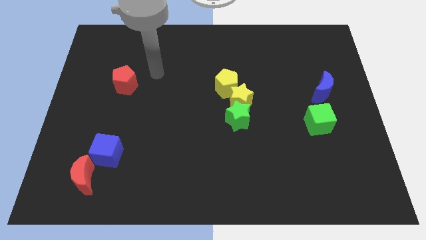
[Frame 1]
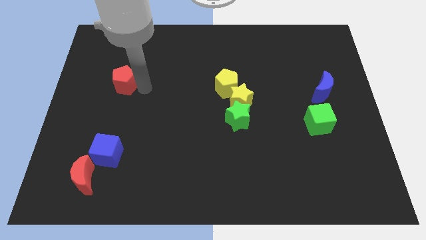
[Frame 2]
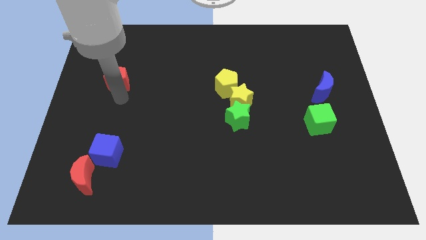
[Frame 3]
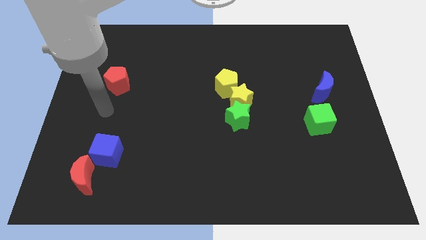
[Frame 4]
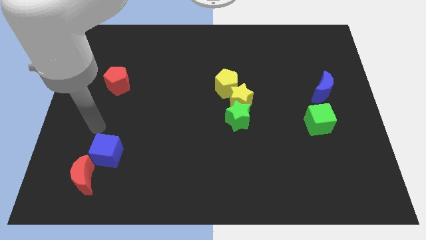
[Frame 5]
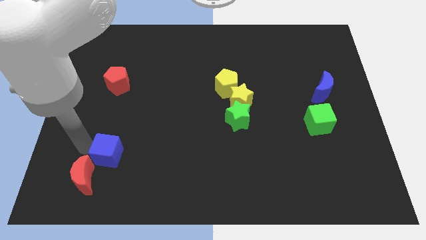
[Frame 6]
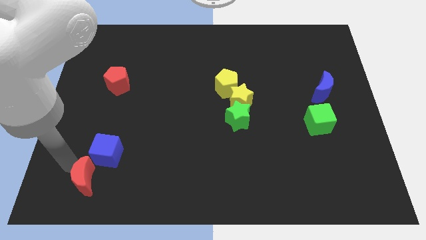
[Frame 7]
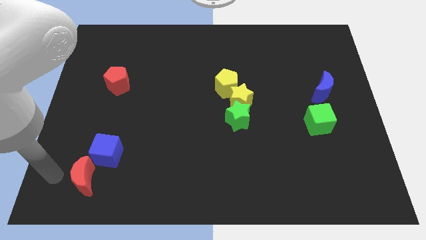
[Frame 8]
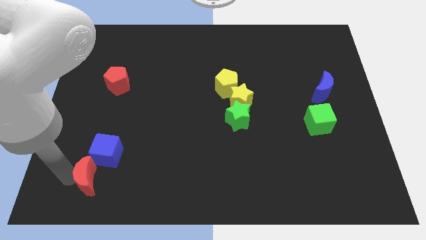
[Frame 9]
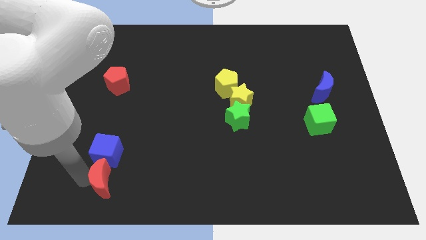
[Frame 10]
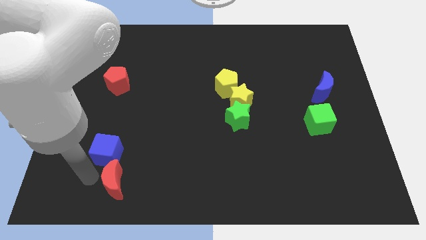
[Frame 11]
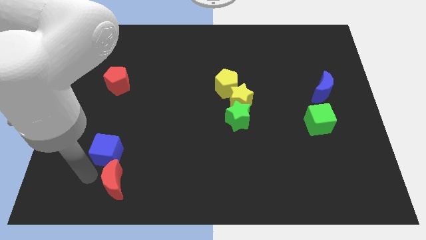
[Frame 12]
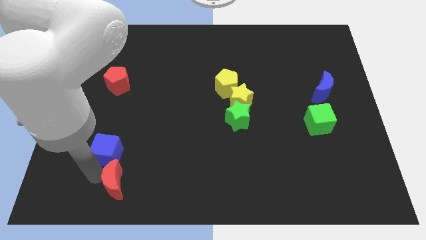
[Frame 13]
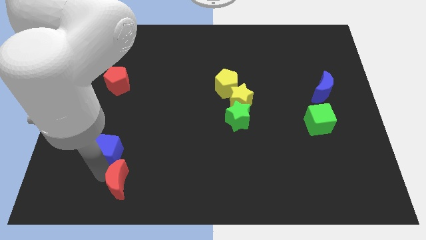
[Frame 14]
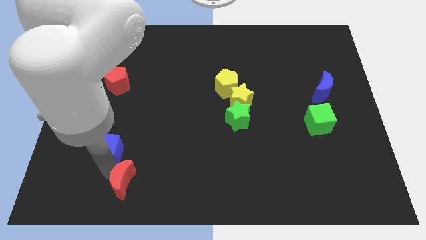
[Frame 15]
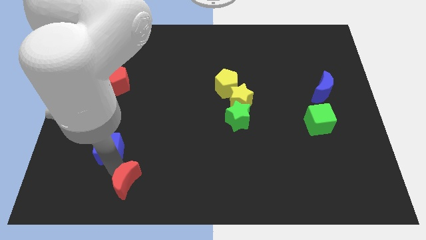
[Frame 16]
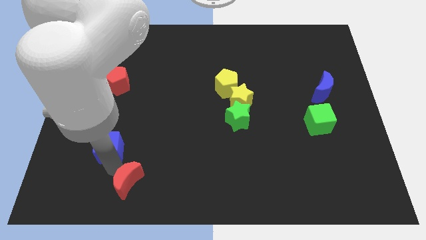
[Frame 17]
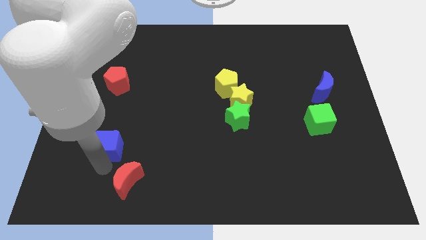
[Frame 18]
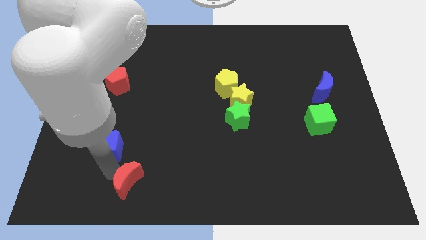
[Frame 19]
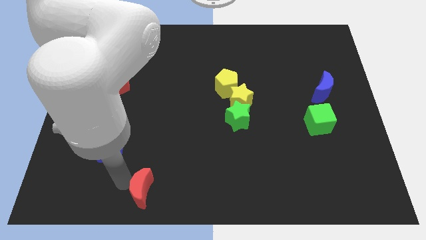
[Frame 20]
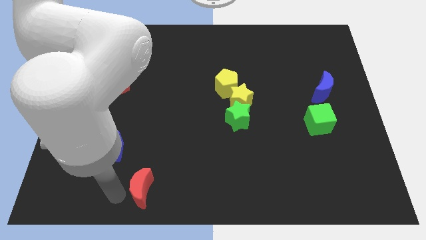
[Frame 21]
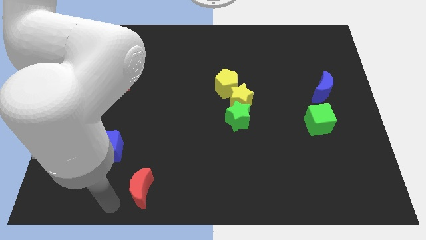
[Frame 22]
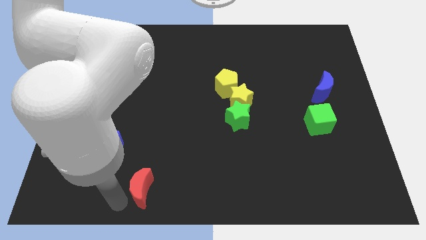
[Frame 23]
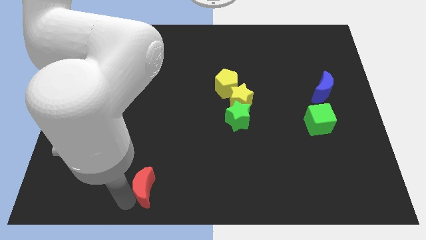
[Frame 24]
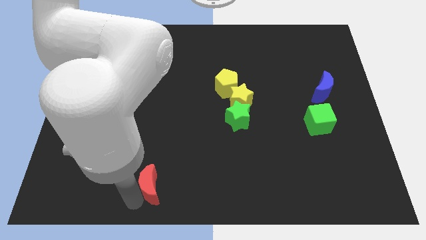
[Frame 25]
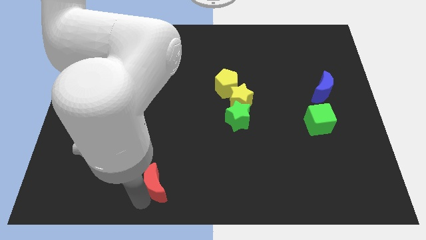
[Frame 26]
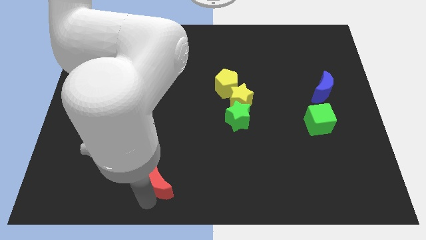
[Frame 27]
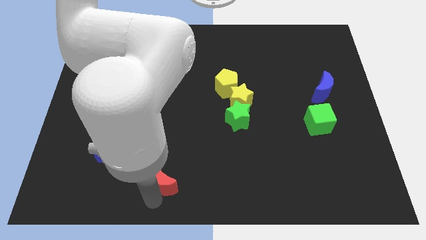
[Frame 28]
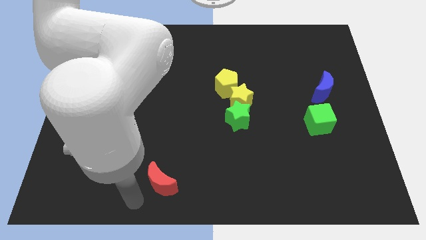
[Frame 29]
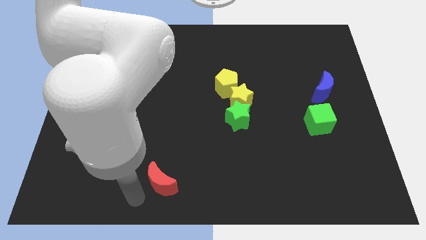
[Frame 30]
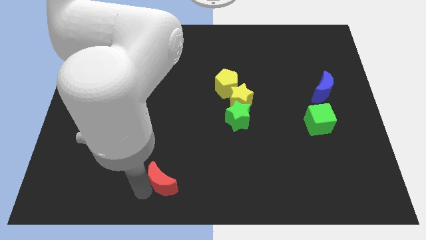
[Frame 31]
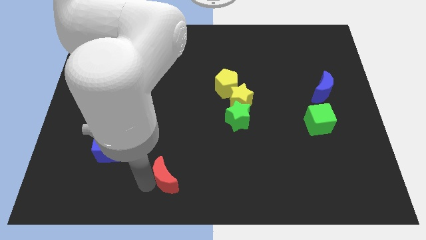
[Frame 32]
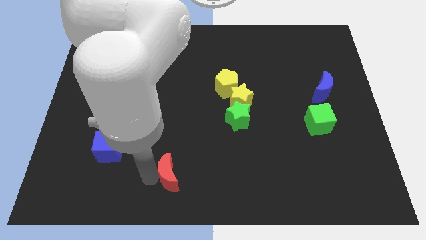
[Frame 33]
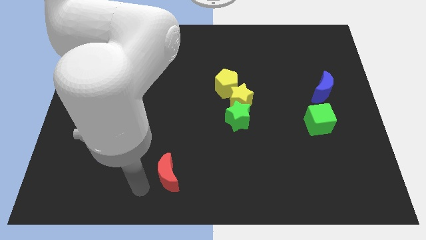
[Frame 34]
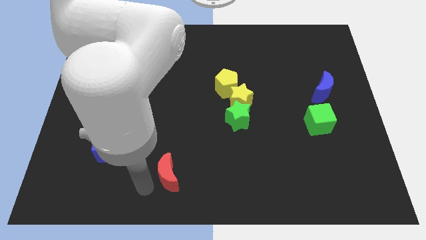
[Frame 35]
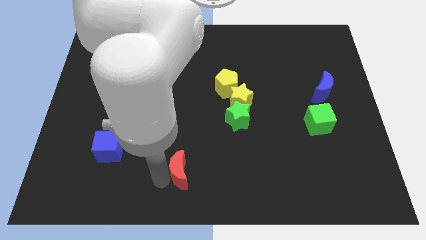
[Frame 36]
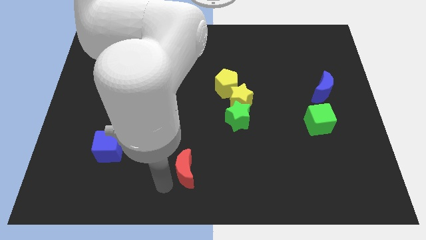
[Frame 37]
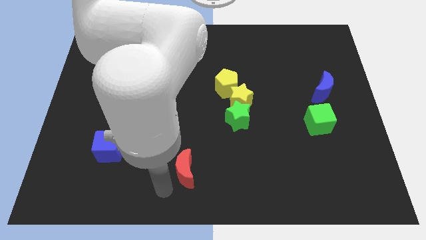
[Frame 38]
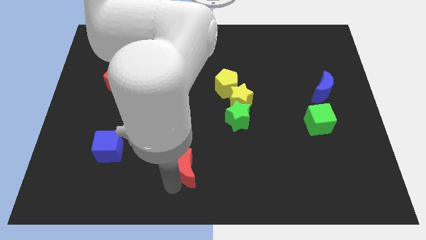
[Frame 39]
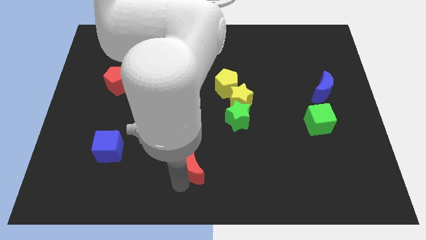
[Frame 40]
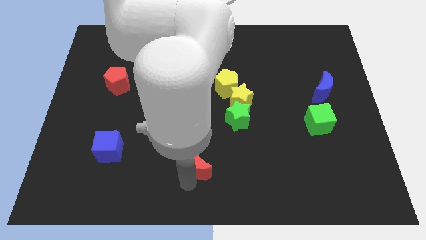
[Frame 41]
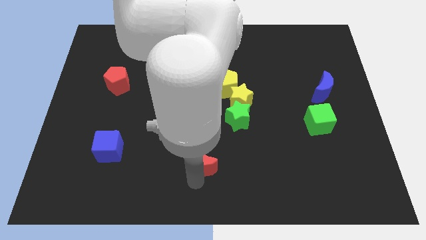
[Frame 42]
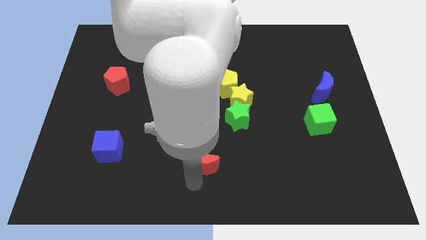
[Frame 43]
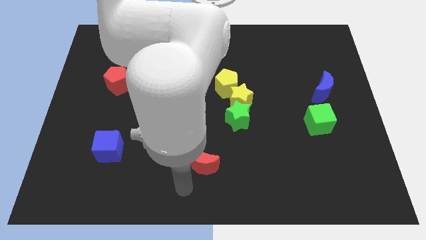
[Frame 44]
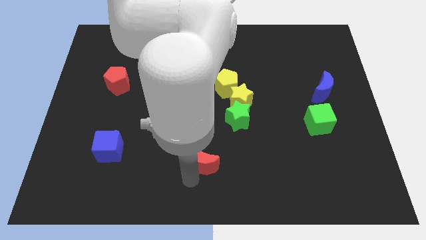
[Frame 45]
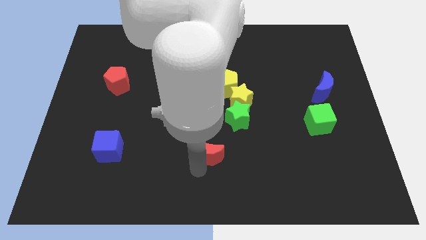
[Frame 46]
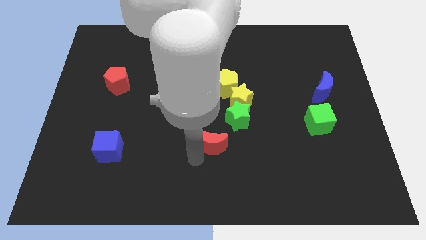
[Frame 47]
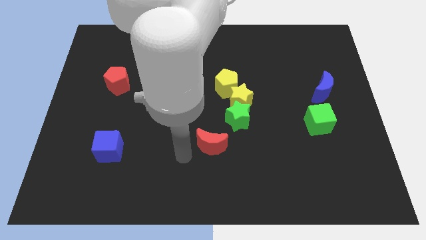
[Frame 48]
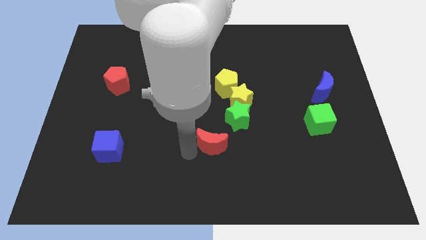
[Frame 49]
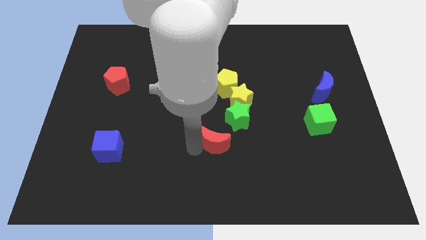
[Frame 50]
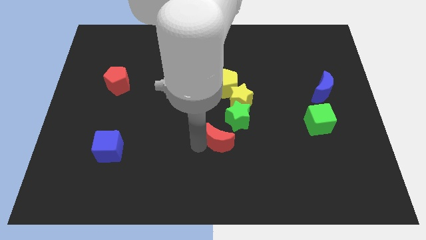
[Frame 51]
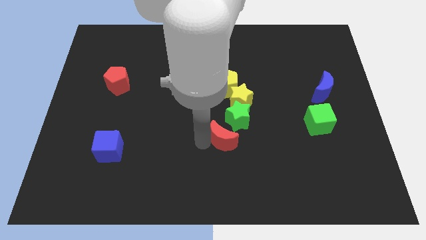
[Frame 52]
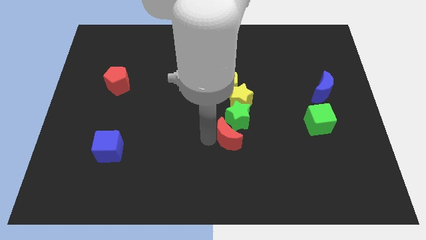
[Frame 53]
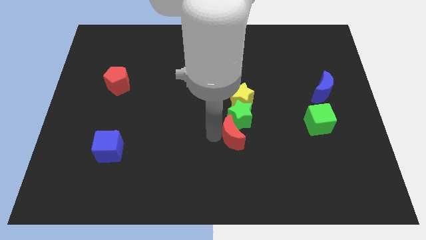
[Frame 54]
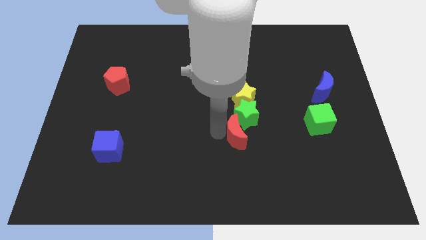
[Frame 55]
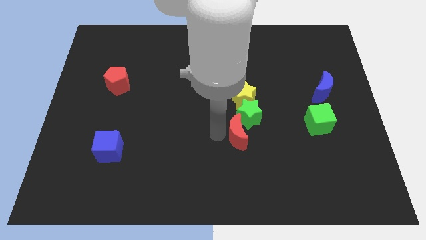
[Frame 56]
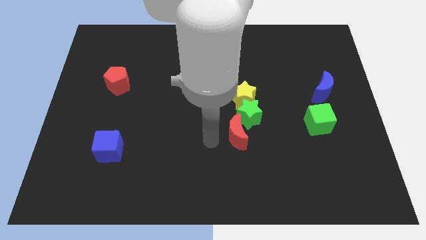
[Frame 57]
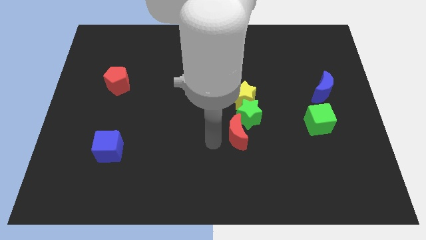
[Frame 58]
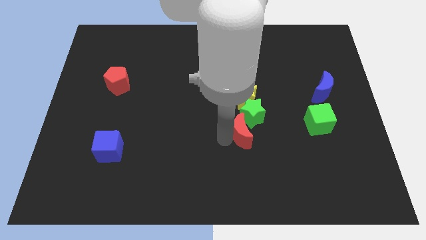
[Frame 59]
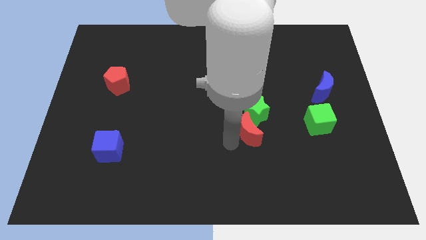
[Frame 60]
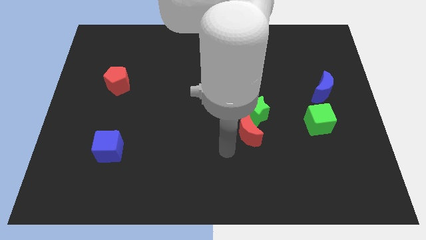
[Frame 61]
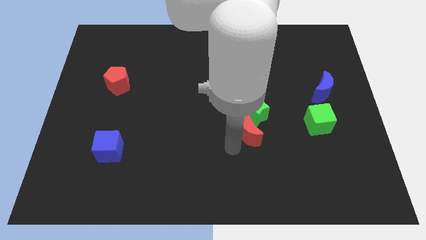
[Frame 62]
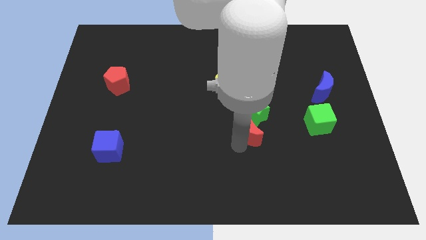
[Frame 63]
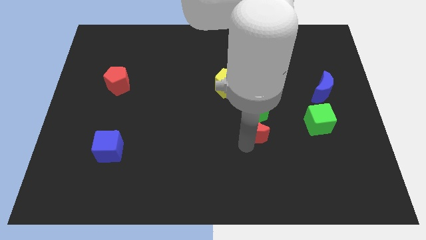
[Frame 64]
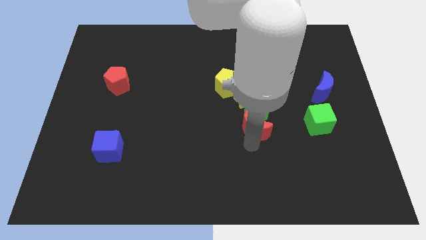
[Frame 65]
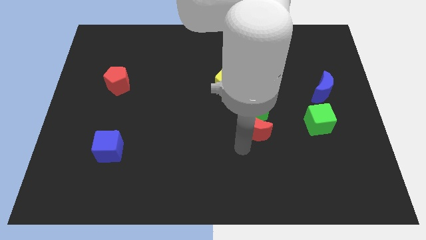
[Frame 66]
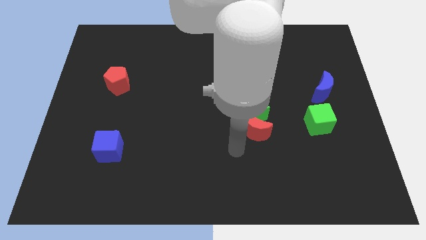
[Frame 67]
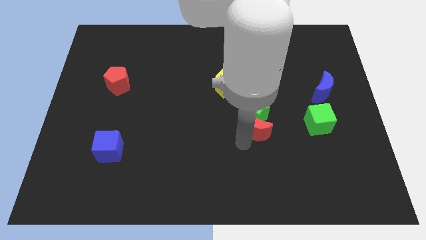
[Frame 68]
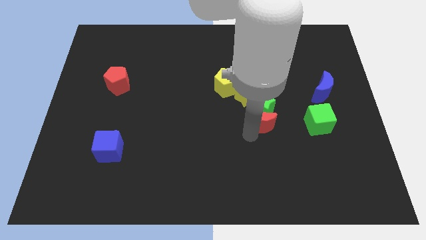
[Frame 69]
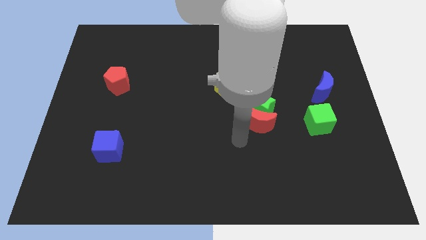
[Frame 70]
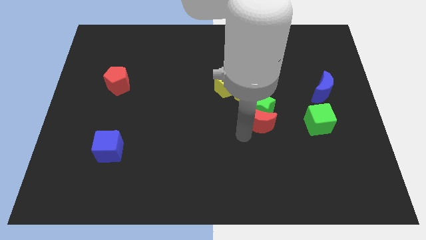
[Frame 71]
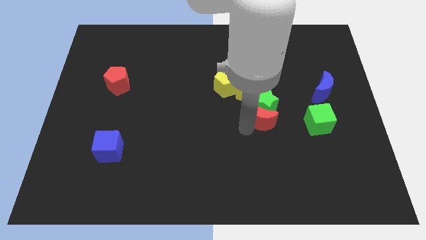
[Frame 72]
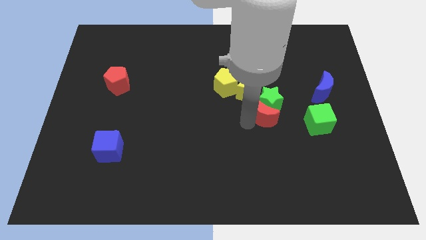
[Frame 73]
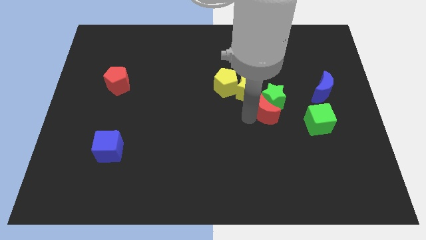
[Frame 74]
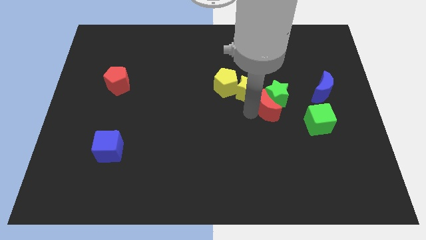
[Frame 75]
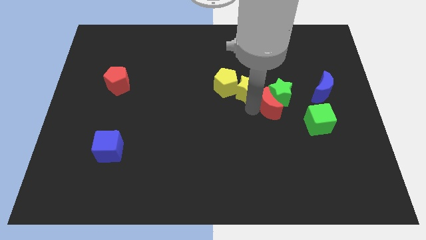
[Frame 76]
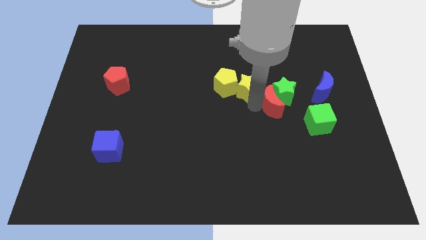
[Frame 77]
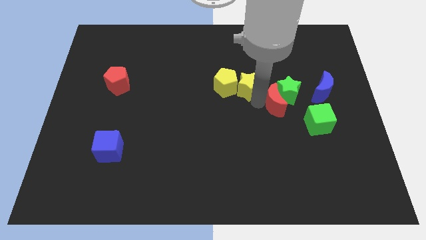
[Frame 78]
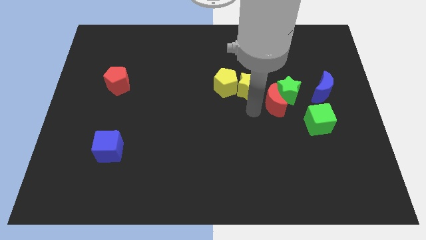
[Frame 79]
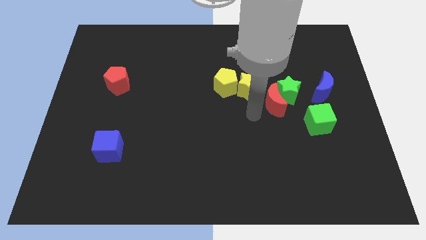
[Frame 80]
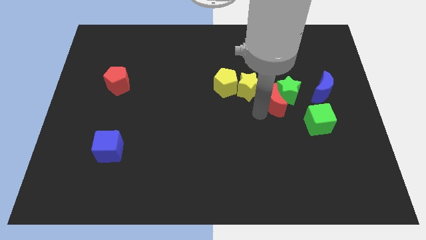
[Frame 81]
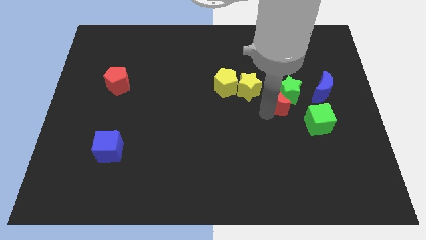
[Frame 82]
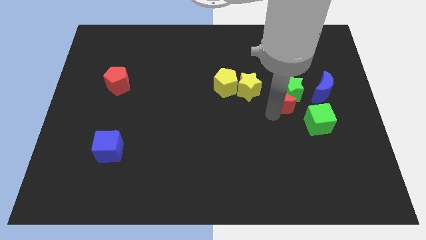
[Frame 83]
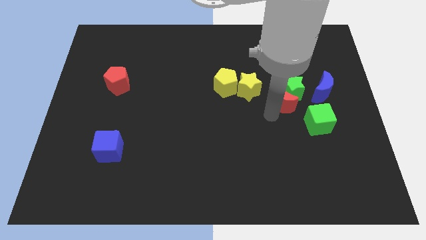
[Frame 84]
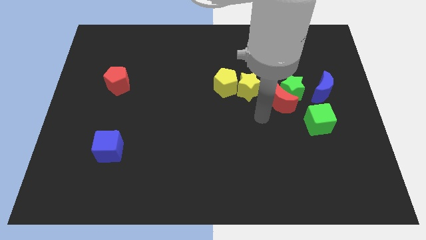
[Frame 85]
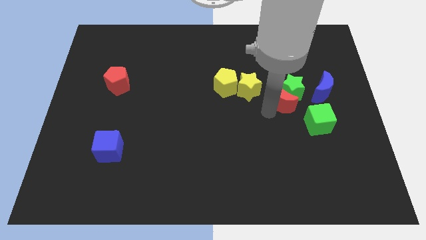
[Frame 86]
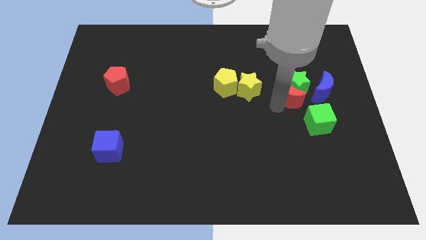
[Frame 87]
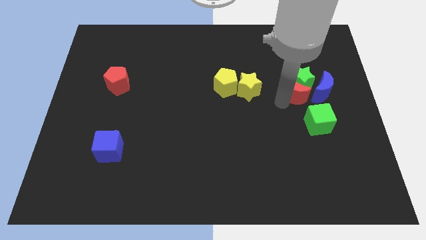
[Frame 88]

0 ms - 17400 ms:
slide the red moon above the green cube
